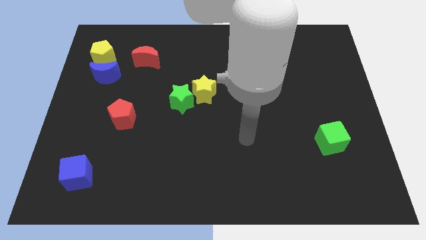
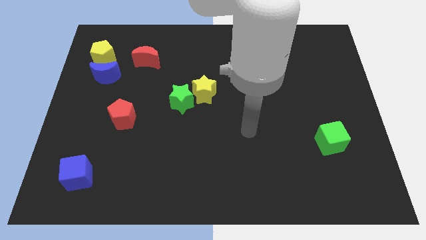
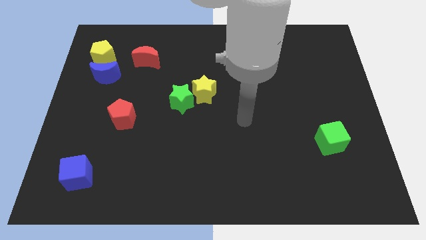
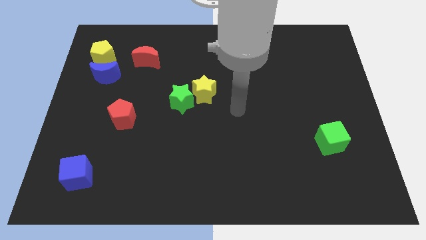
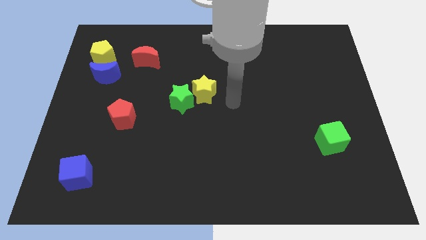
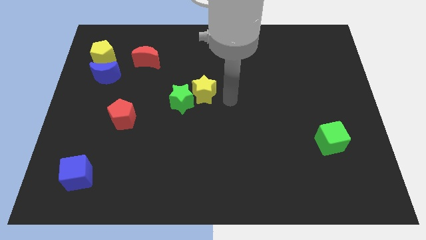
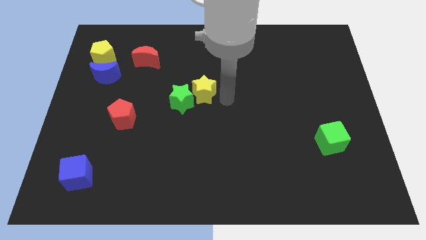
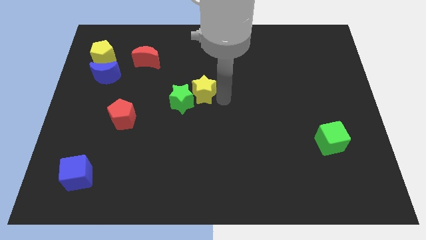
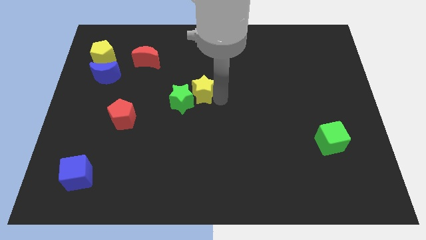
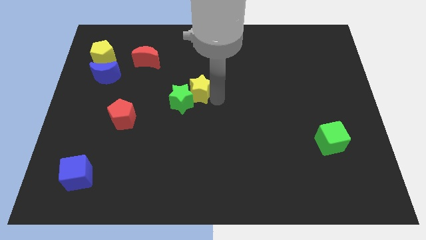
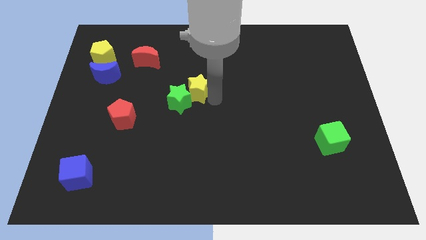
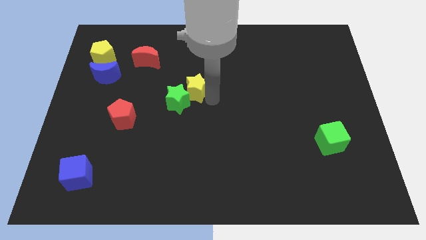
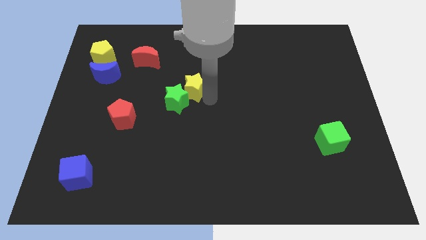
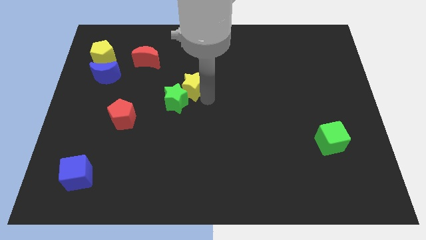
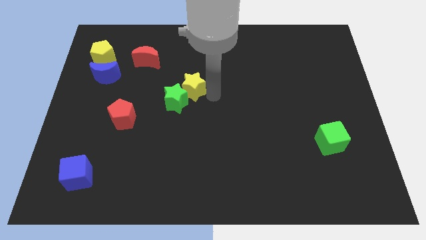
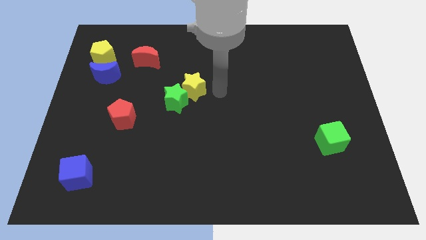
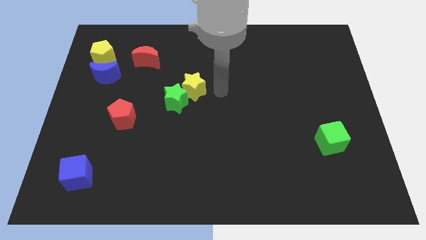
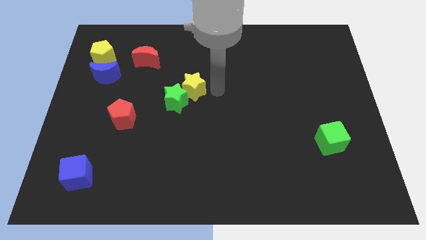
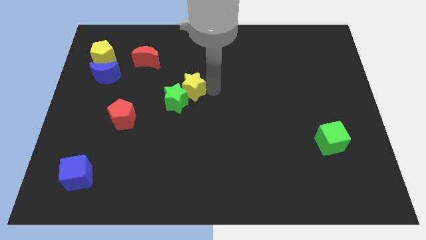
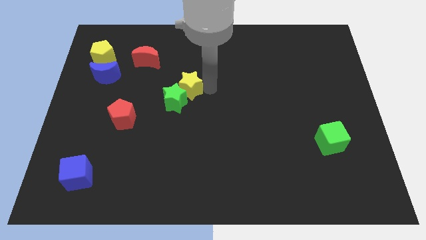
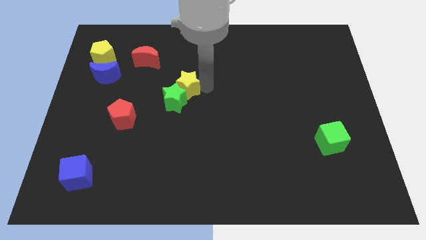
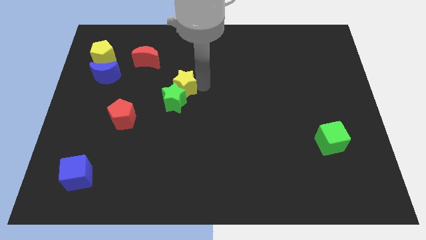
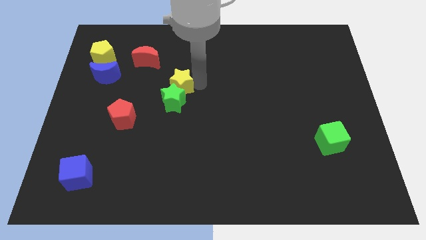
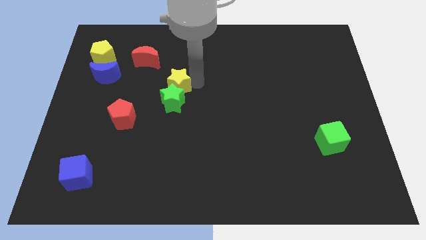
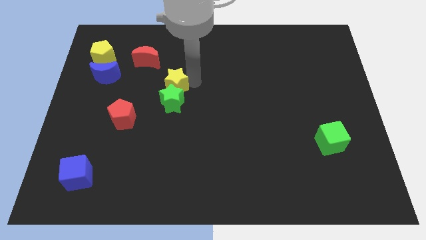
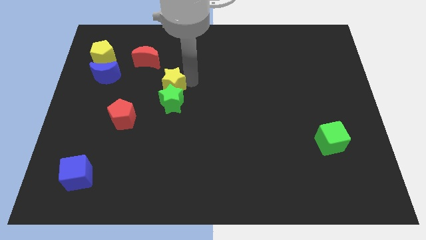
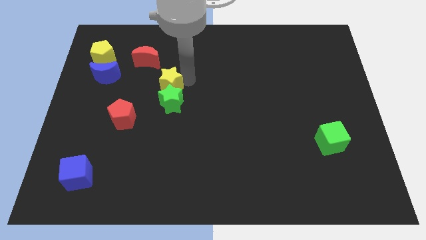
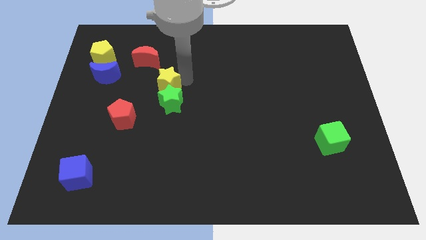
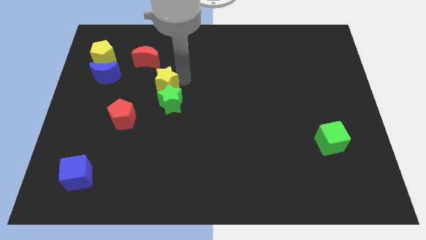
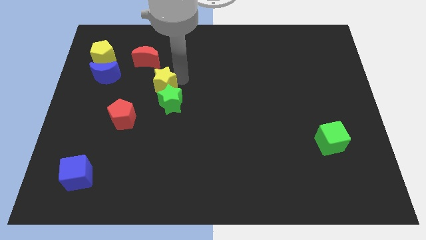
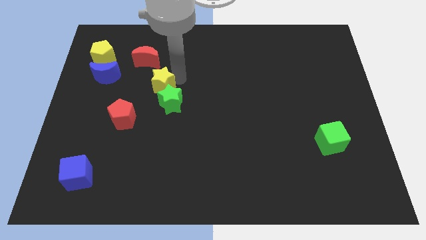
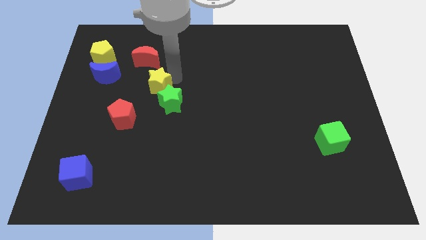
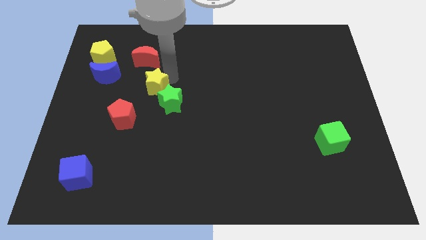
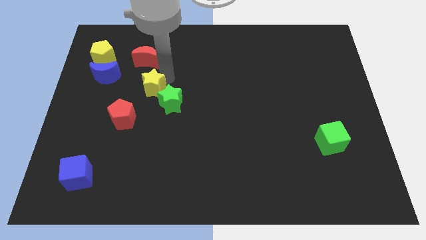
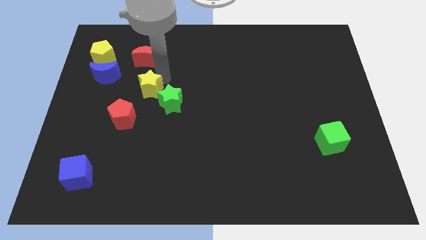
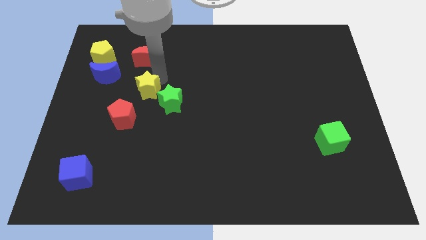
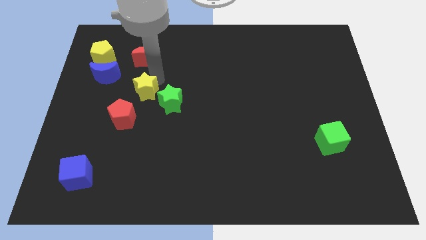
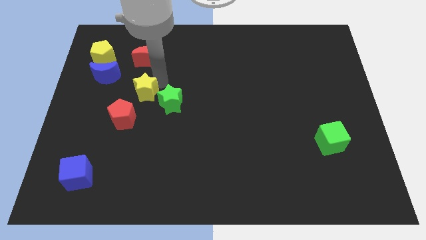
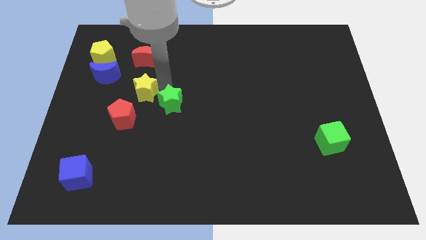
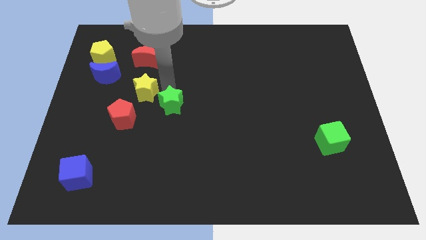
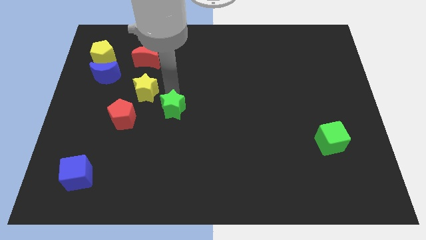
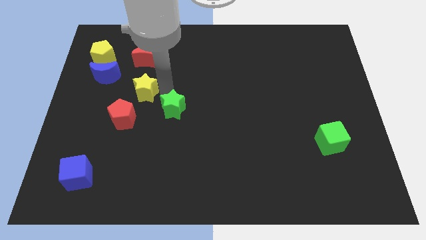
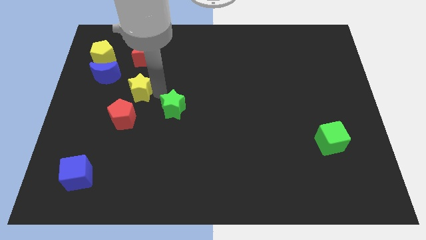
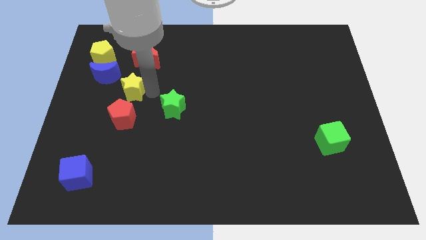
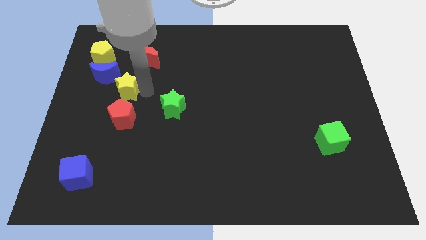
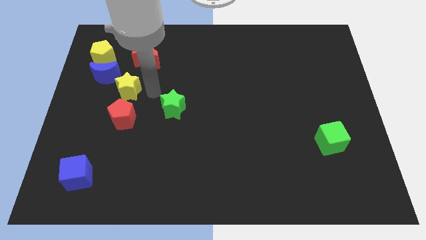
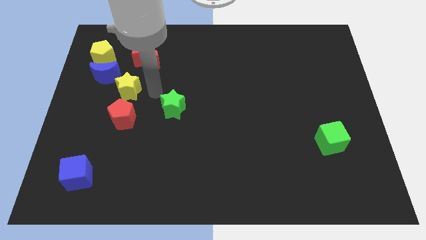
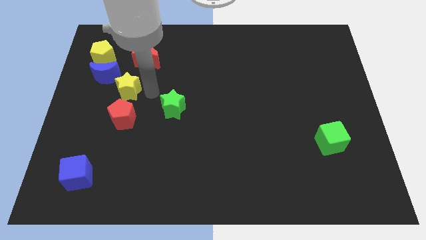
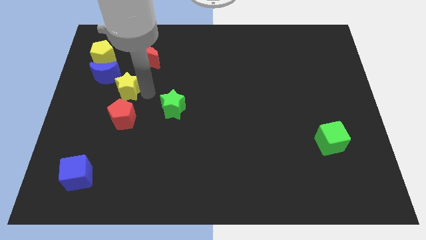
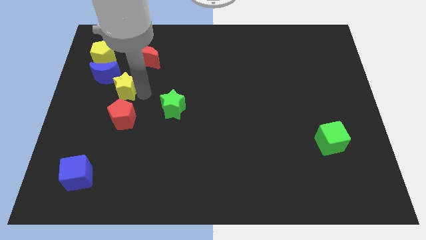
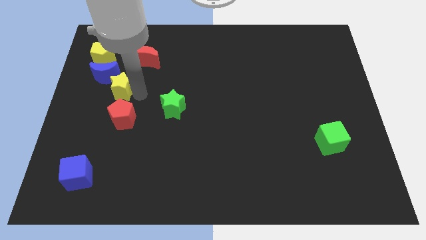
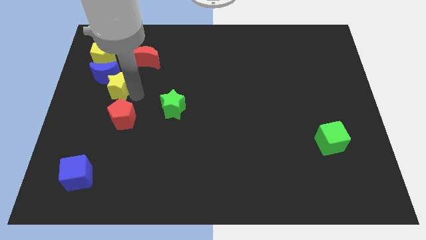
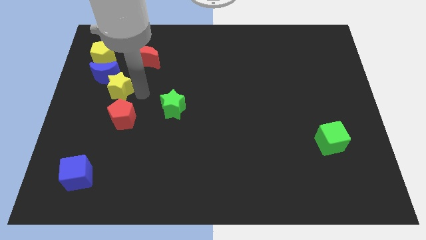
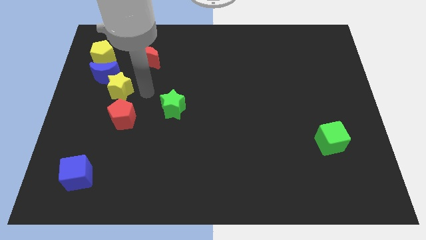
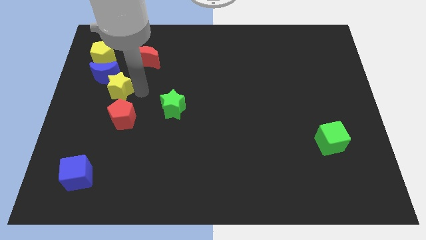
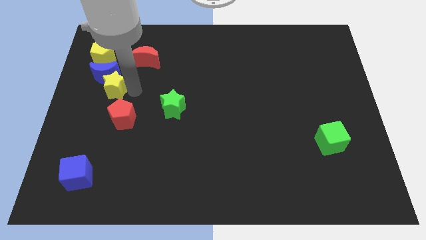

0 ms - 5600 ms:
move the yellow star below the yellow pentagon

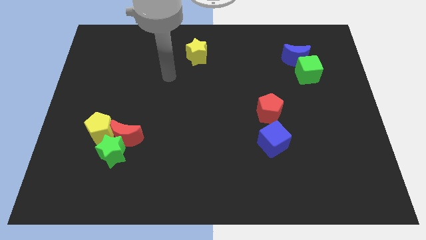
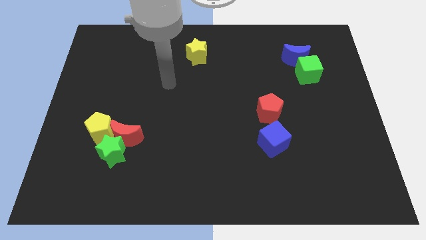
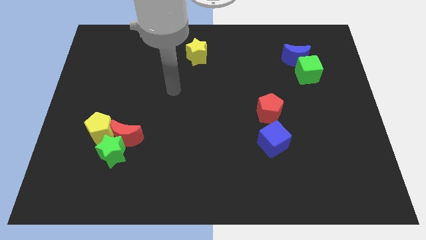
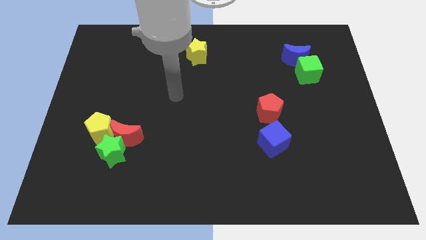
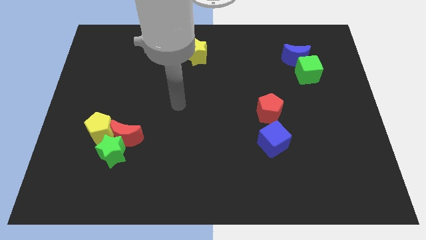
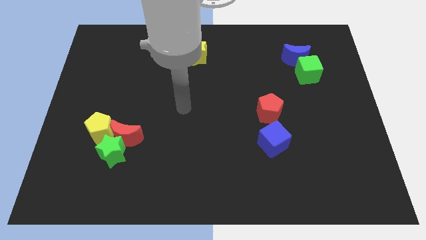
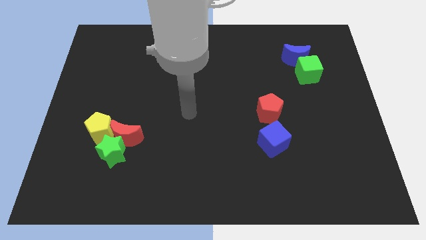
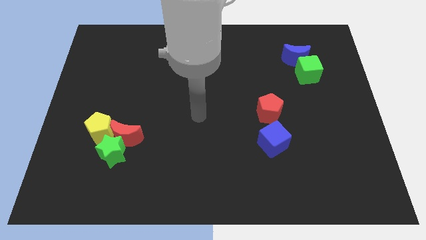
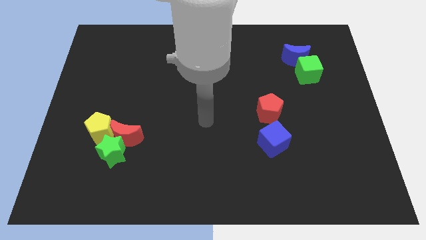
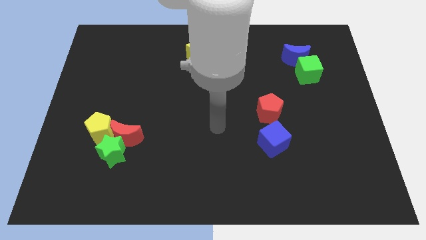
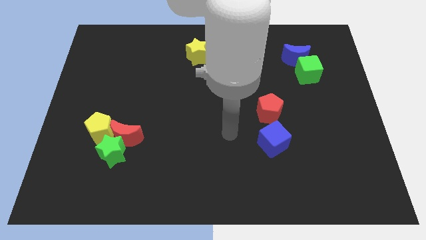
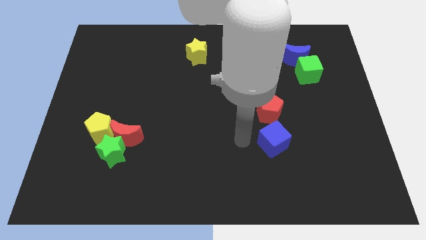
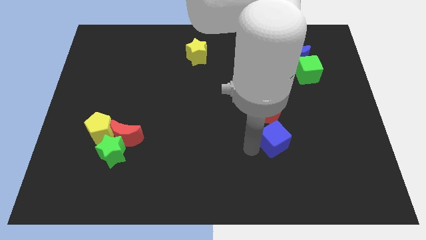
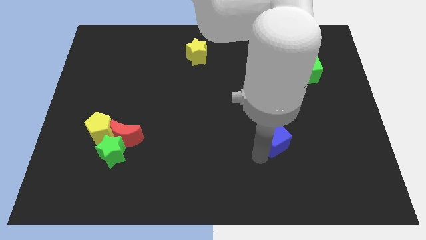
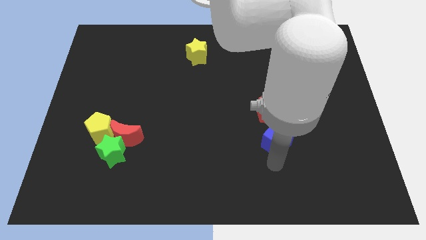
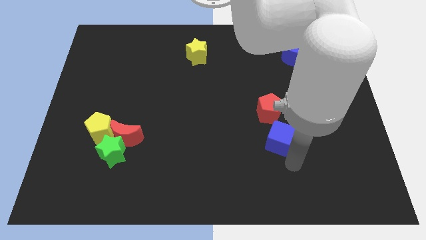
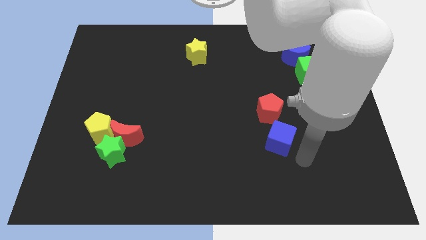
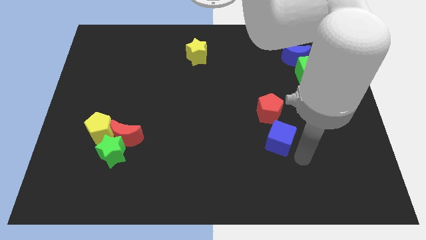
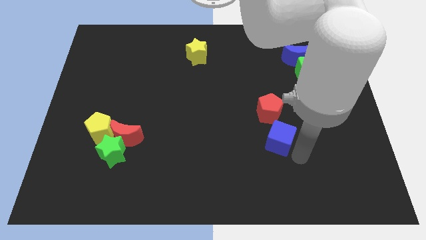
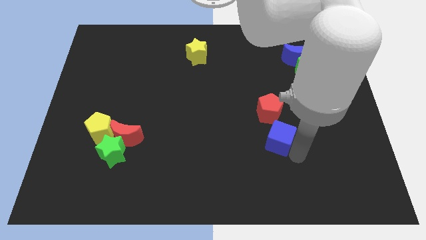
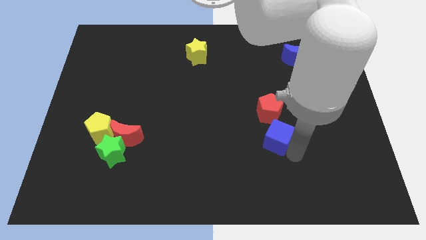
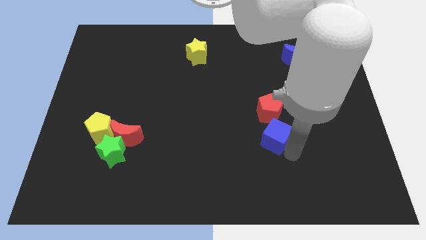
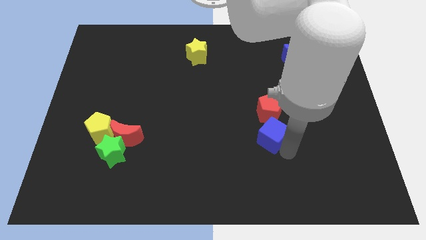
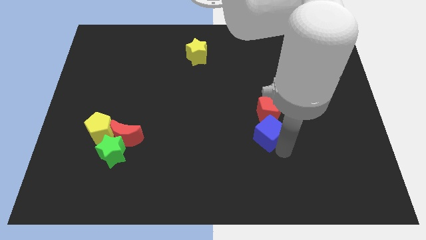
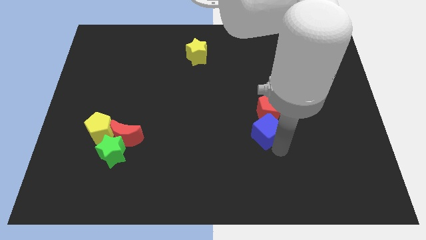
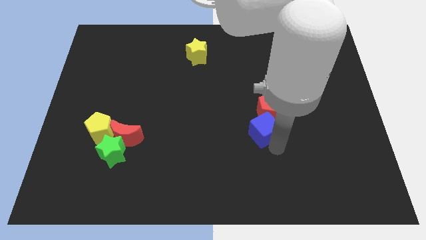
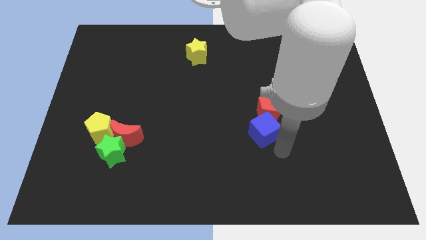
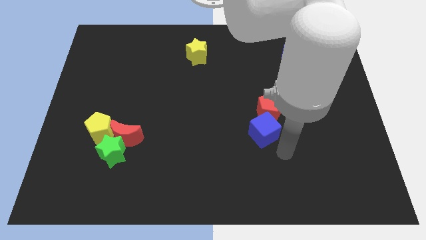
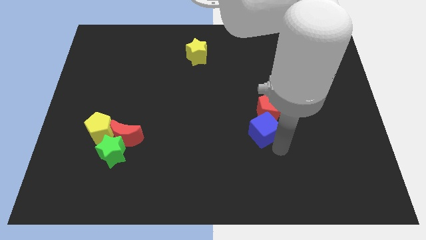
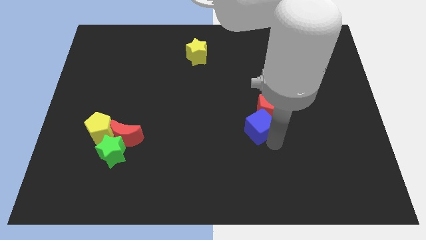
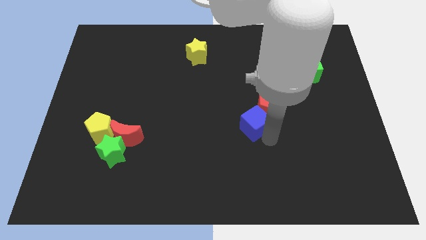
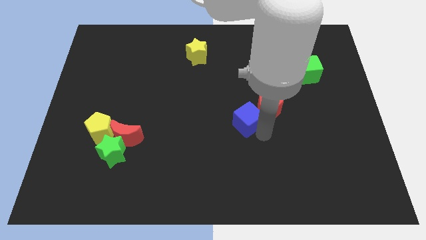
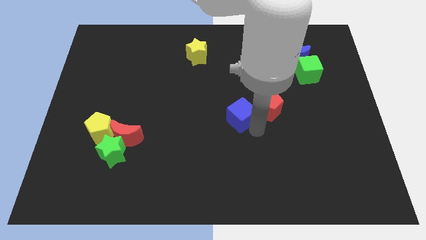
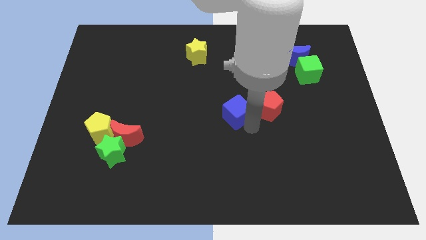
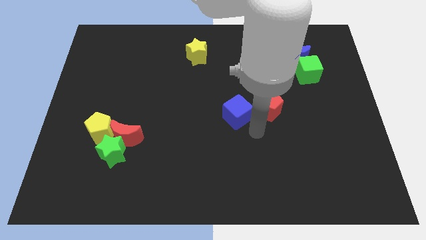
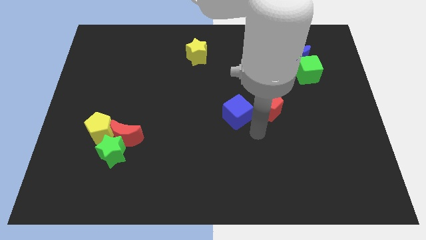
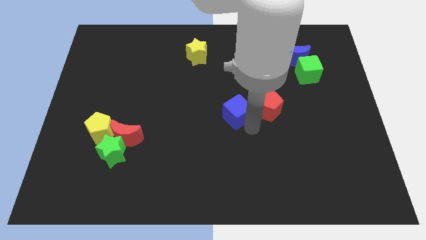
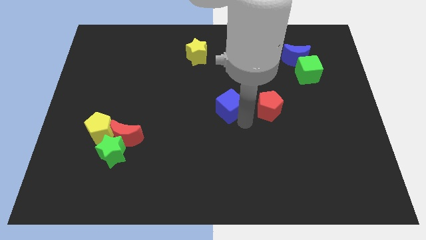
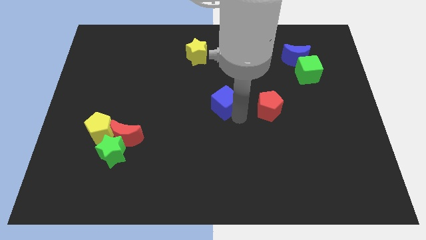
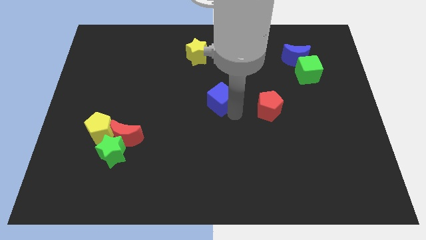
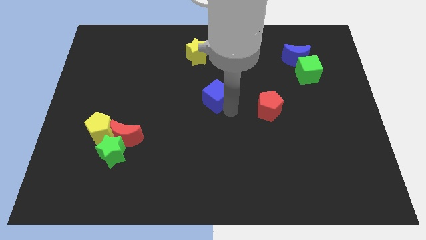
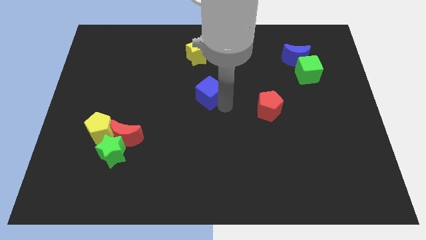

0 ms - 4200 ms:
slide the blue cube below the yellow star
